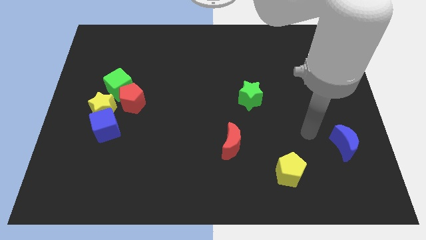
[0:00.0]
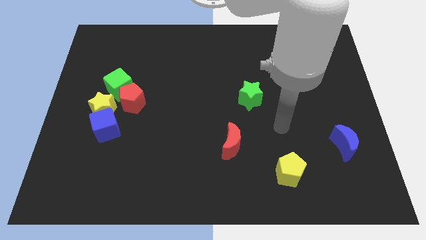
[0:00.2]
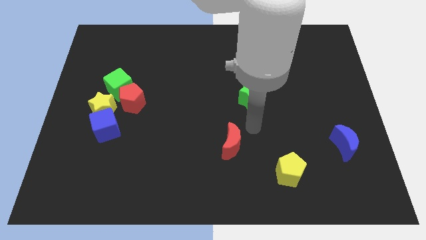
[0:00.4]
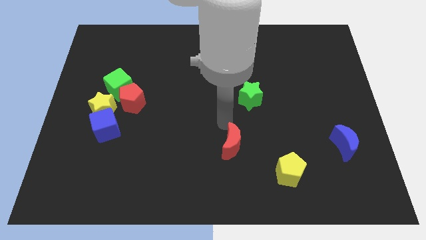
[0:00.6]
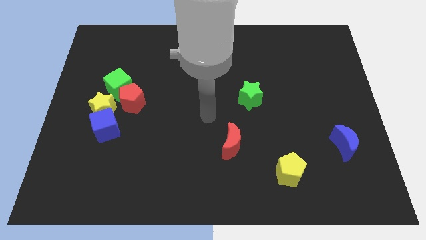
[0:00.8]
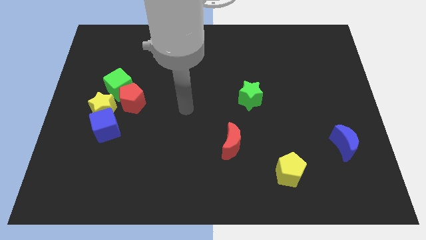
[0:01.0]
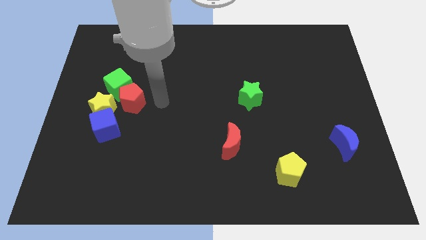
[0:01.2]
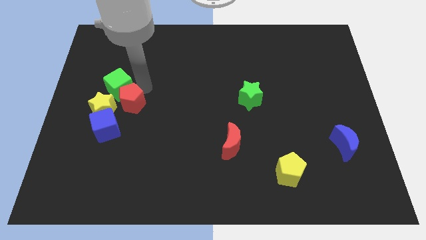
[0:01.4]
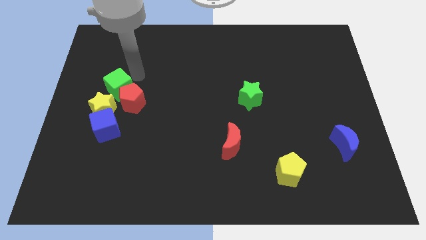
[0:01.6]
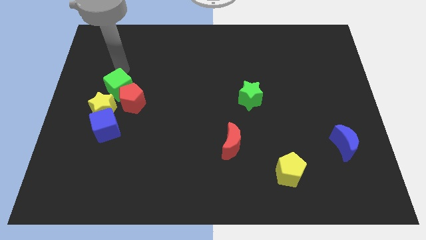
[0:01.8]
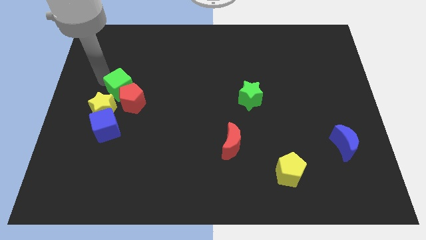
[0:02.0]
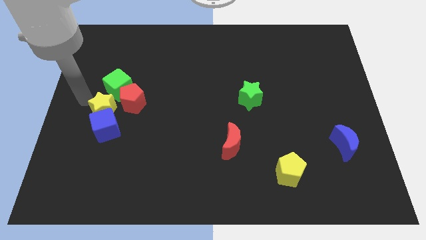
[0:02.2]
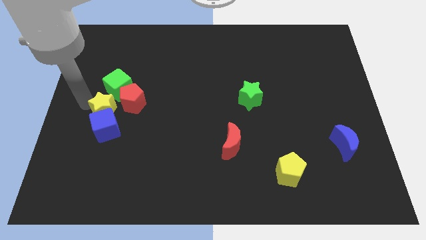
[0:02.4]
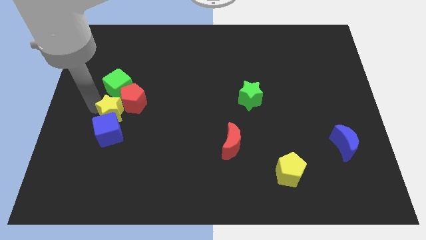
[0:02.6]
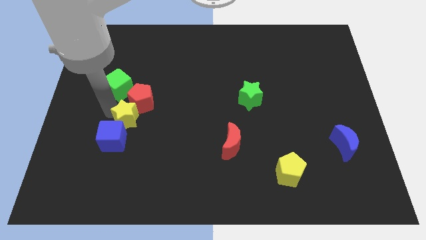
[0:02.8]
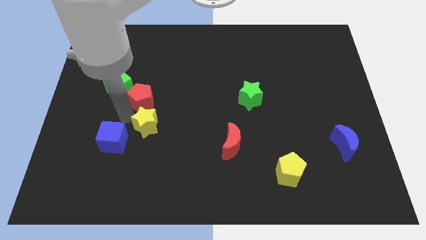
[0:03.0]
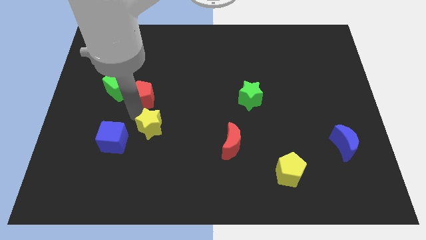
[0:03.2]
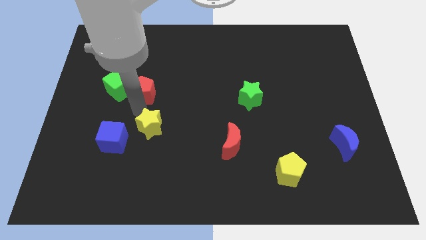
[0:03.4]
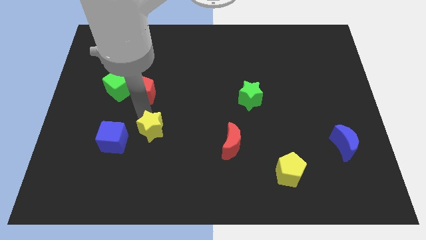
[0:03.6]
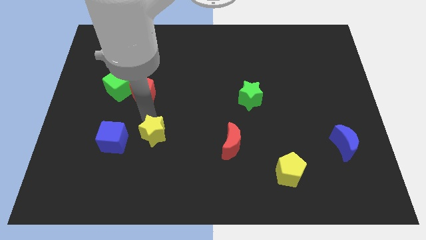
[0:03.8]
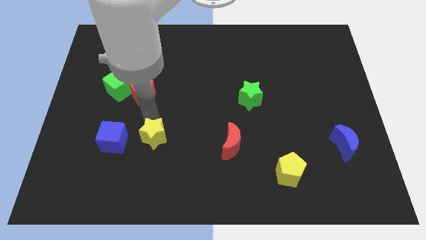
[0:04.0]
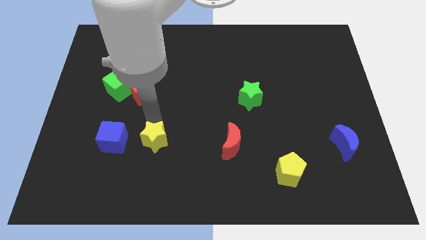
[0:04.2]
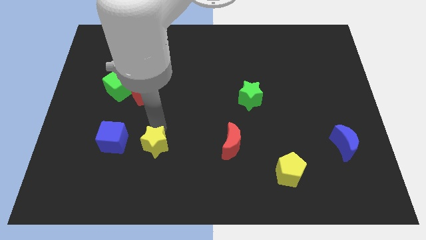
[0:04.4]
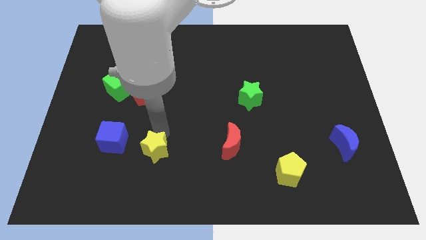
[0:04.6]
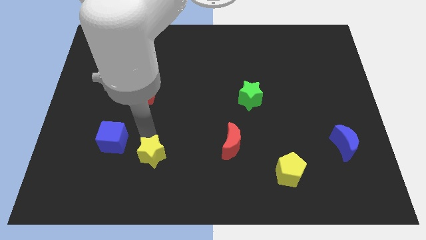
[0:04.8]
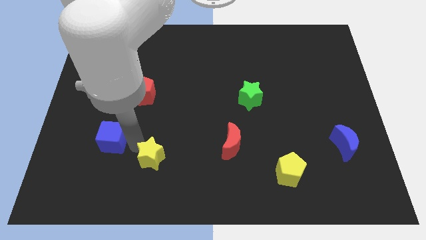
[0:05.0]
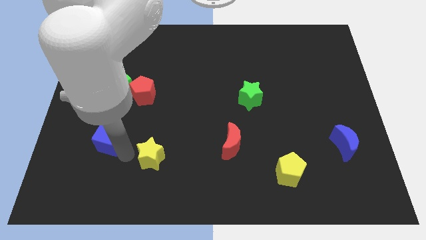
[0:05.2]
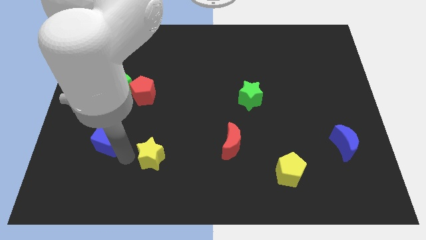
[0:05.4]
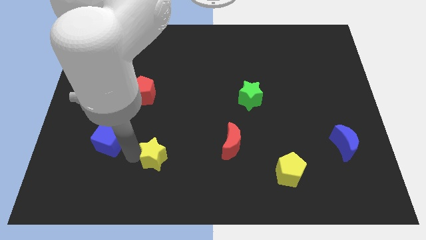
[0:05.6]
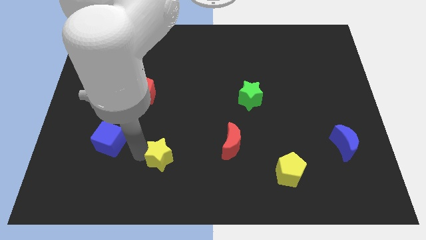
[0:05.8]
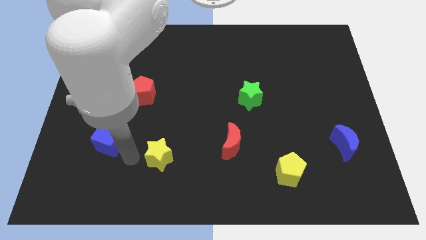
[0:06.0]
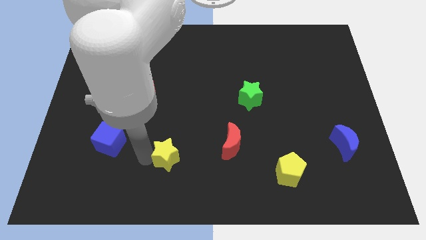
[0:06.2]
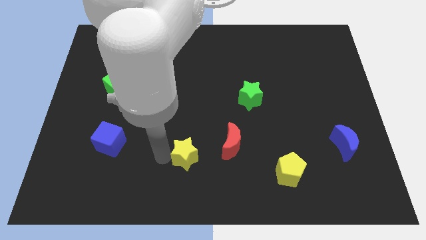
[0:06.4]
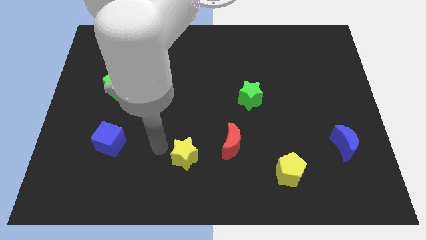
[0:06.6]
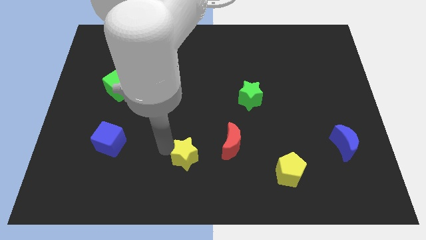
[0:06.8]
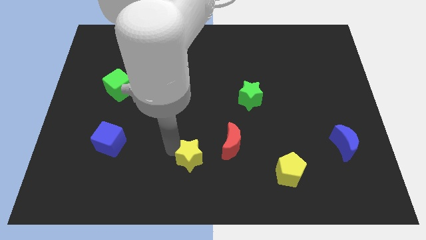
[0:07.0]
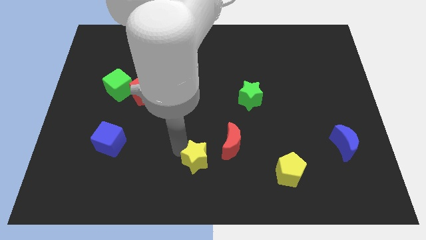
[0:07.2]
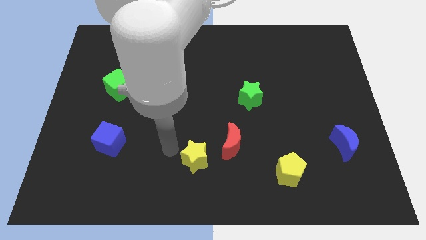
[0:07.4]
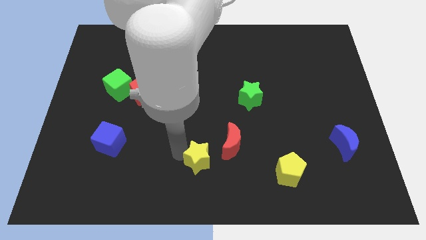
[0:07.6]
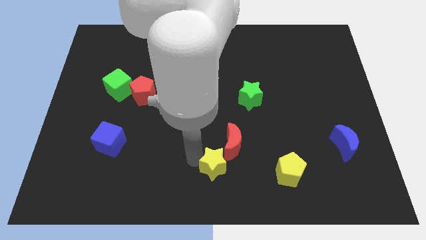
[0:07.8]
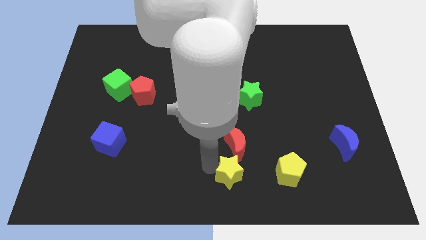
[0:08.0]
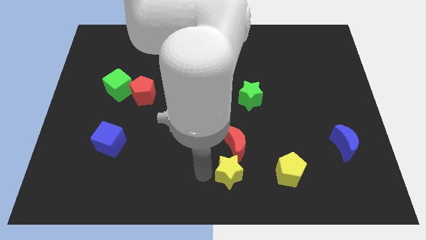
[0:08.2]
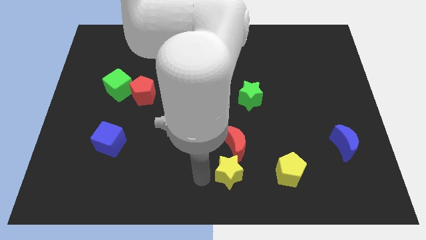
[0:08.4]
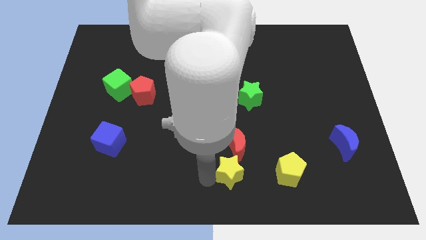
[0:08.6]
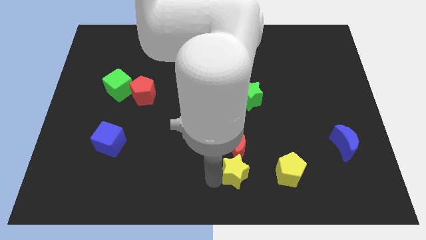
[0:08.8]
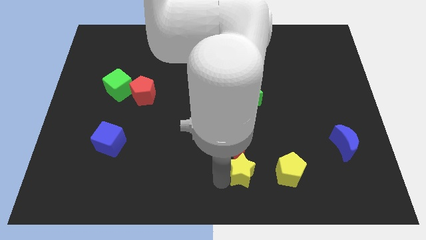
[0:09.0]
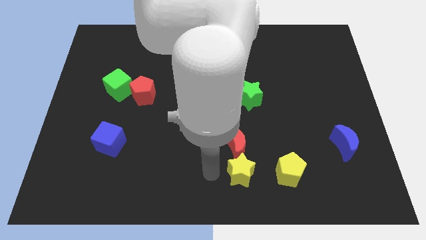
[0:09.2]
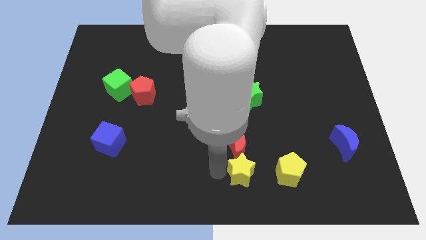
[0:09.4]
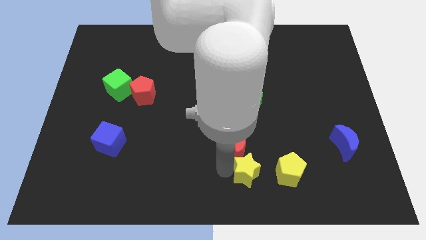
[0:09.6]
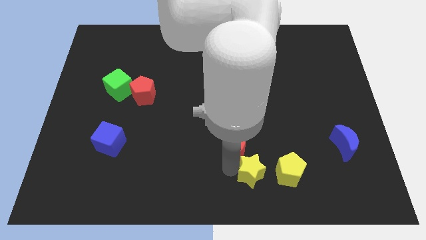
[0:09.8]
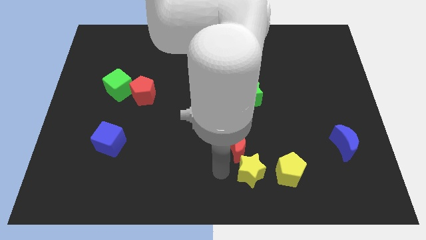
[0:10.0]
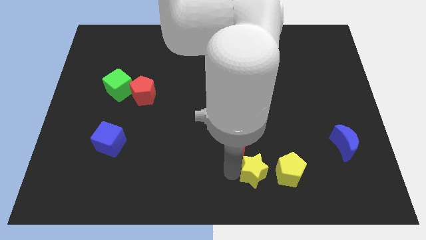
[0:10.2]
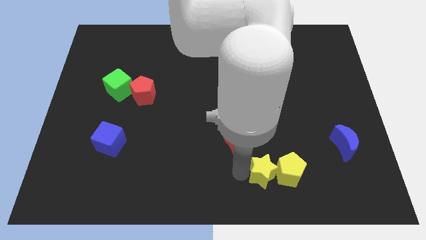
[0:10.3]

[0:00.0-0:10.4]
move the yellow star next to the yellow pentagon

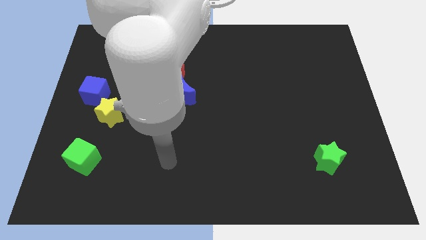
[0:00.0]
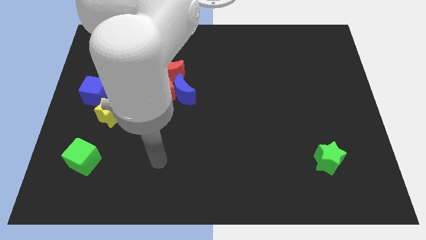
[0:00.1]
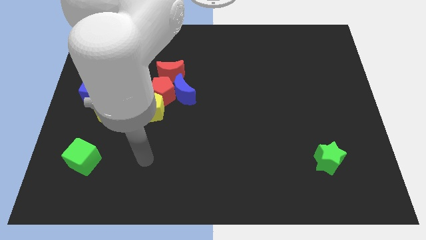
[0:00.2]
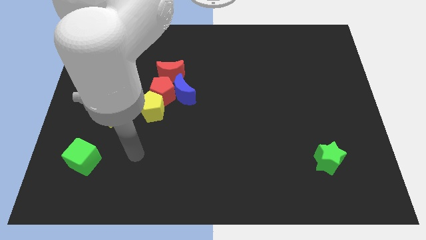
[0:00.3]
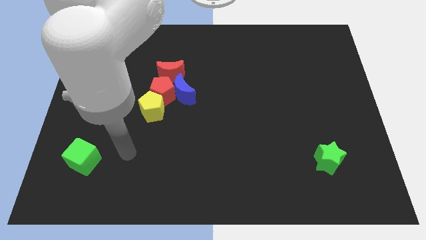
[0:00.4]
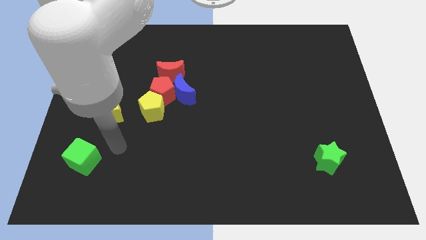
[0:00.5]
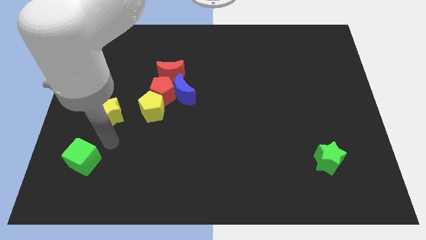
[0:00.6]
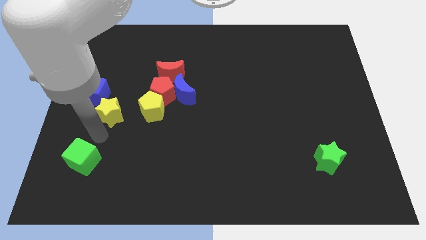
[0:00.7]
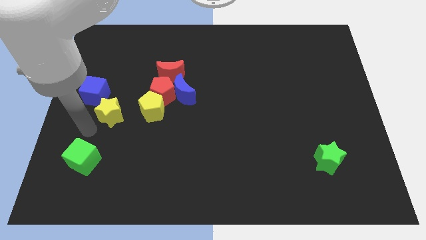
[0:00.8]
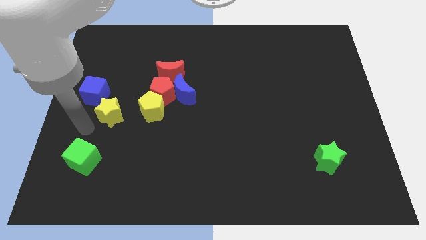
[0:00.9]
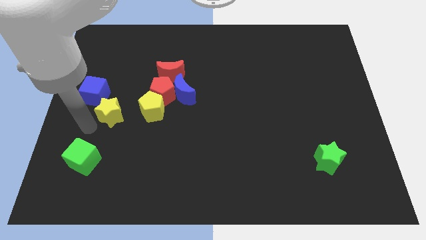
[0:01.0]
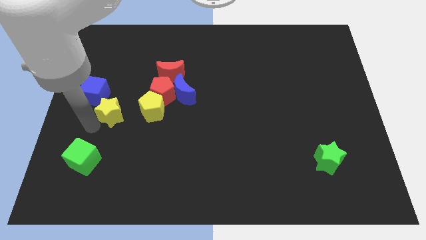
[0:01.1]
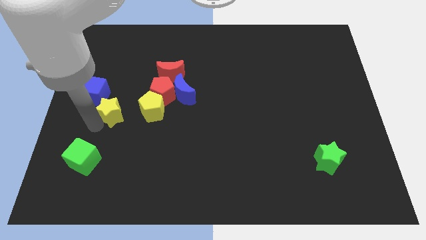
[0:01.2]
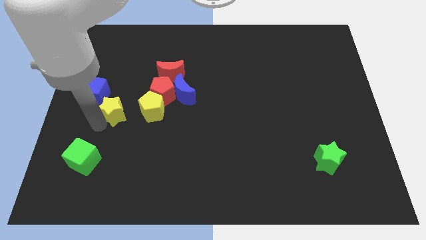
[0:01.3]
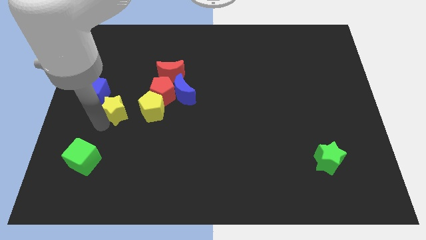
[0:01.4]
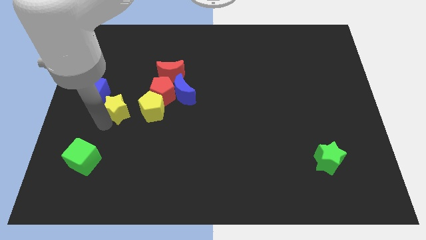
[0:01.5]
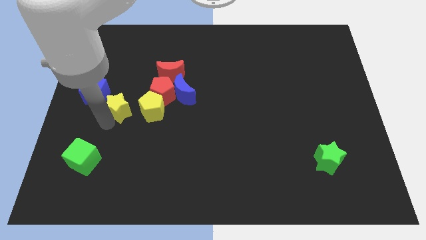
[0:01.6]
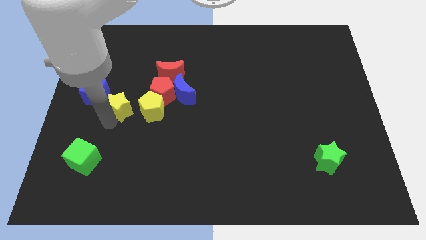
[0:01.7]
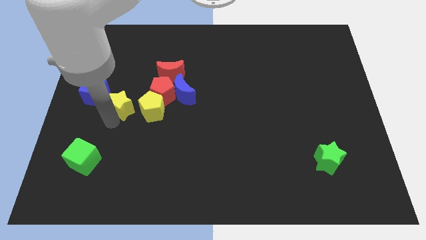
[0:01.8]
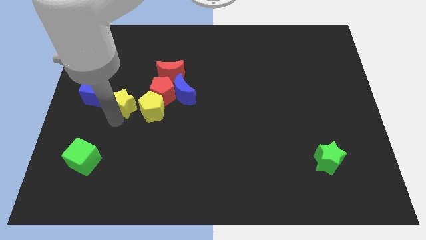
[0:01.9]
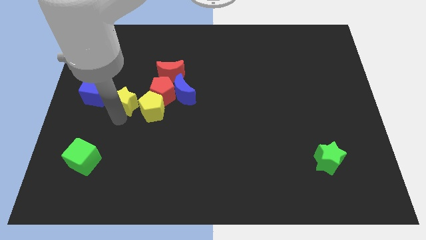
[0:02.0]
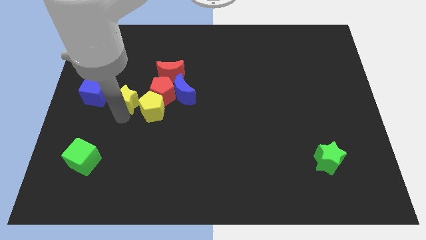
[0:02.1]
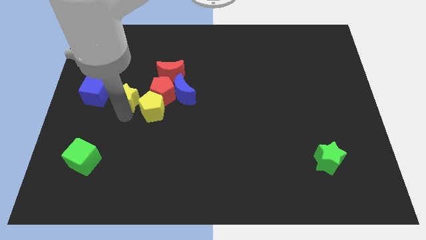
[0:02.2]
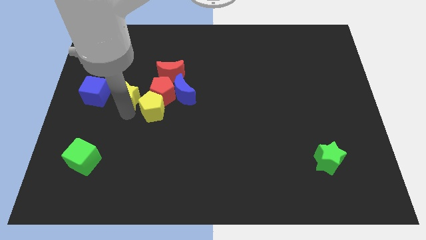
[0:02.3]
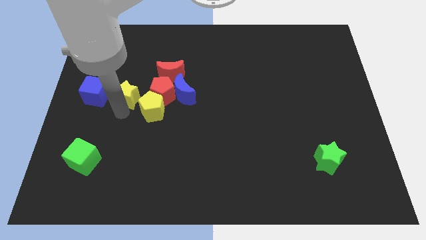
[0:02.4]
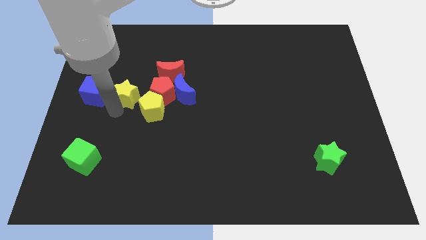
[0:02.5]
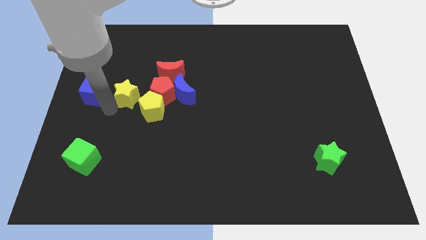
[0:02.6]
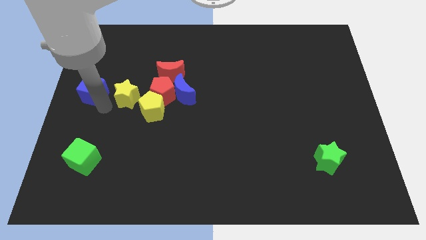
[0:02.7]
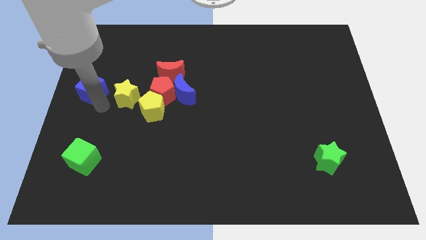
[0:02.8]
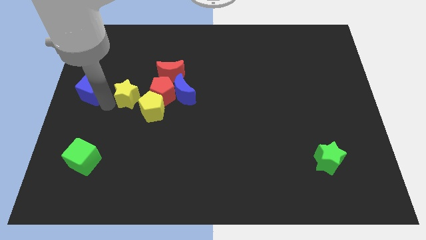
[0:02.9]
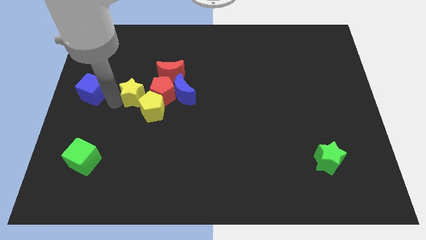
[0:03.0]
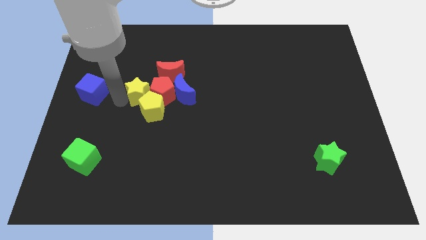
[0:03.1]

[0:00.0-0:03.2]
push the yellow star close to the red pentagon
